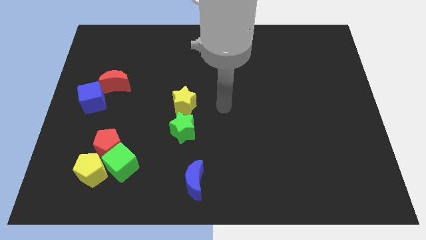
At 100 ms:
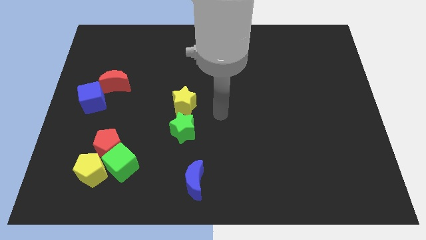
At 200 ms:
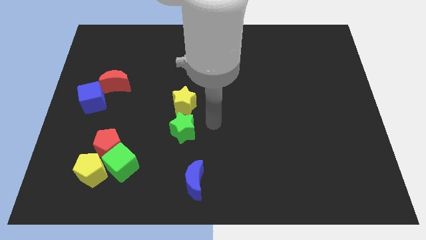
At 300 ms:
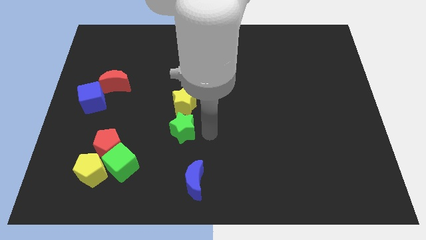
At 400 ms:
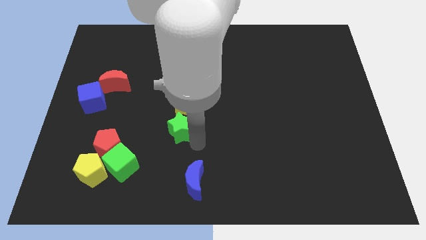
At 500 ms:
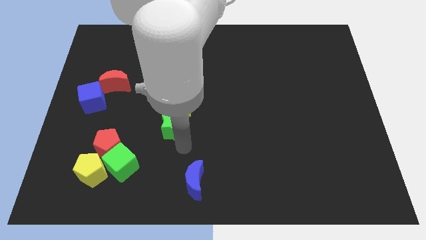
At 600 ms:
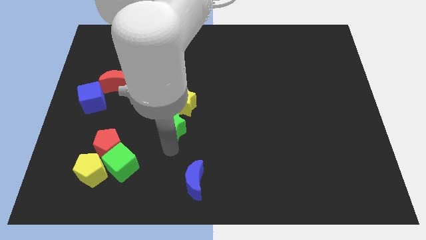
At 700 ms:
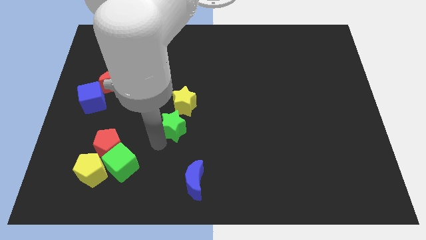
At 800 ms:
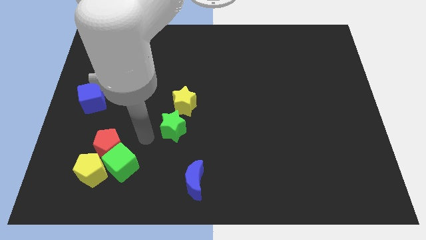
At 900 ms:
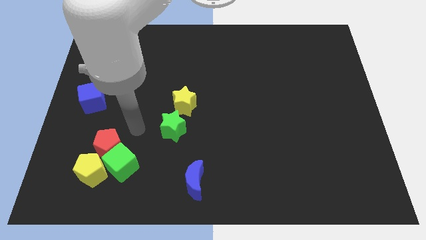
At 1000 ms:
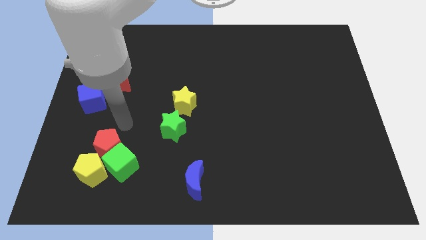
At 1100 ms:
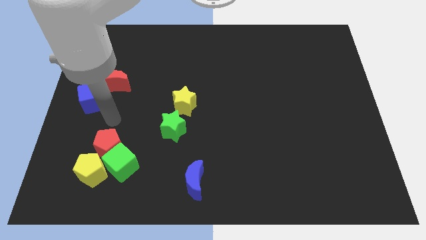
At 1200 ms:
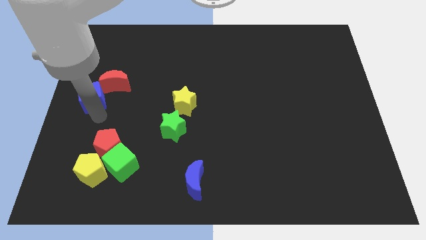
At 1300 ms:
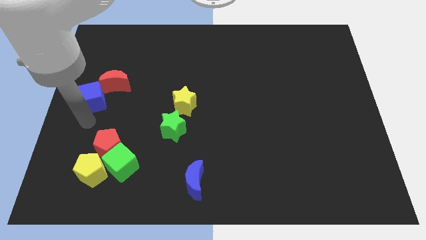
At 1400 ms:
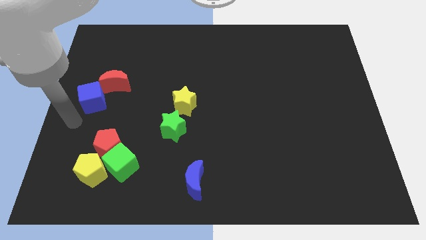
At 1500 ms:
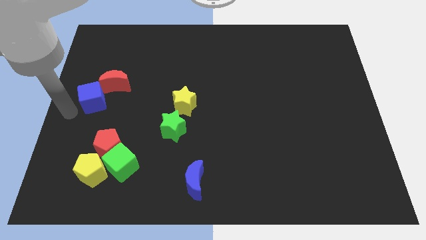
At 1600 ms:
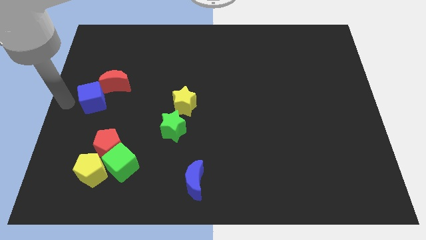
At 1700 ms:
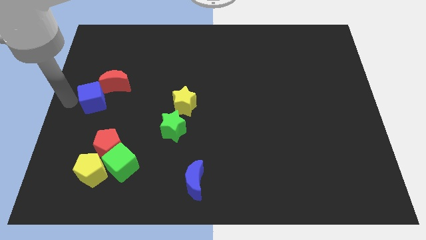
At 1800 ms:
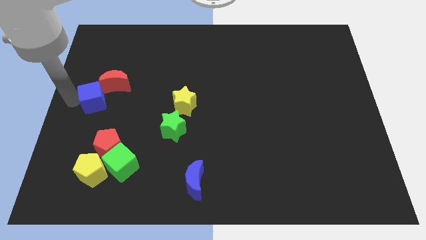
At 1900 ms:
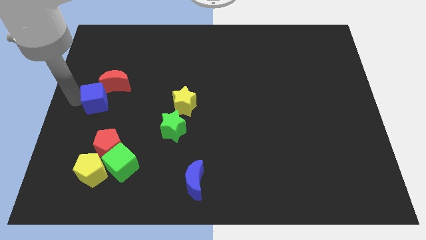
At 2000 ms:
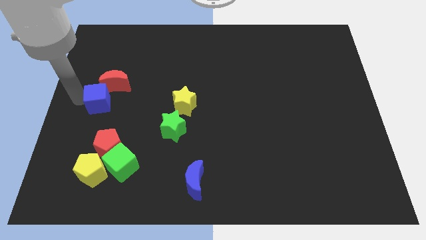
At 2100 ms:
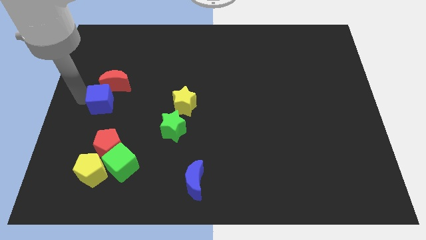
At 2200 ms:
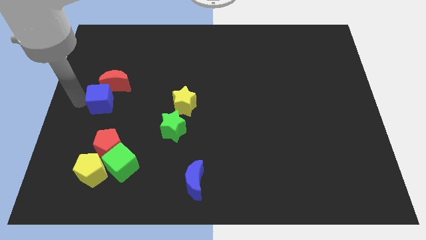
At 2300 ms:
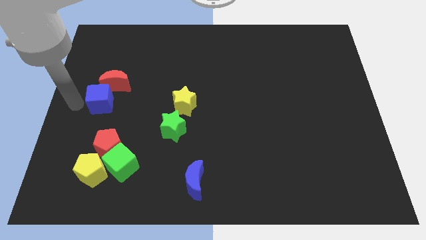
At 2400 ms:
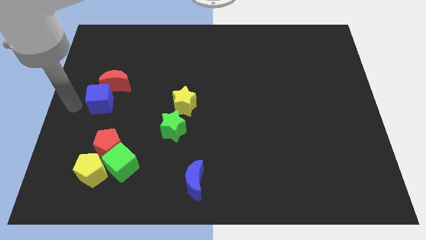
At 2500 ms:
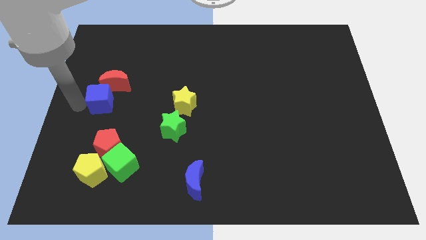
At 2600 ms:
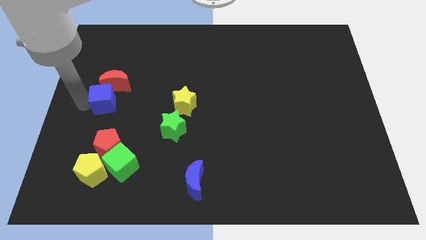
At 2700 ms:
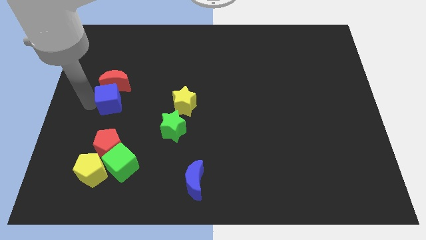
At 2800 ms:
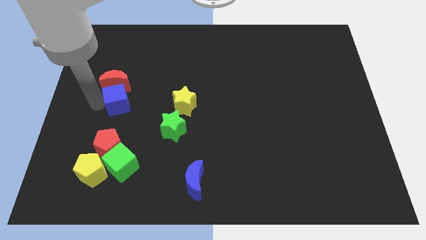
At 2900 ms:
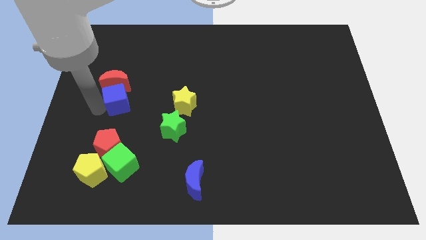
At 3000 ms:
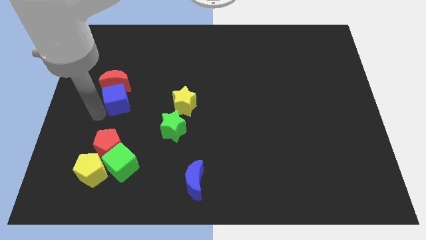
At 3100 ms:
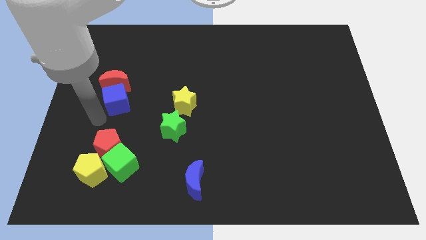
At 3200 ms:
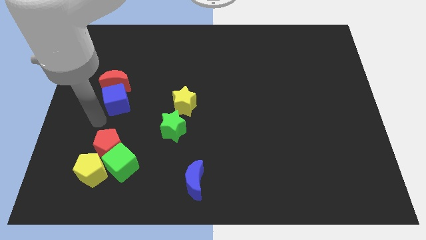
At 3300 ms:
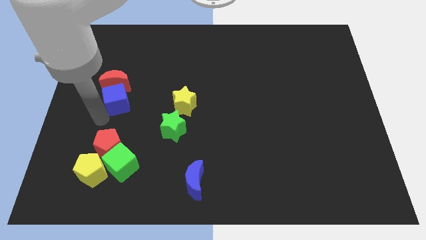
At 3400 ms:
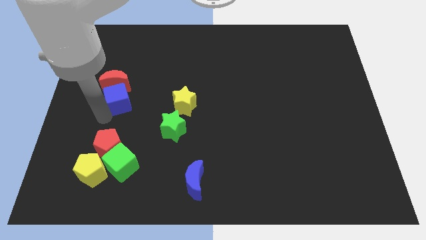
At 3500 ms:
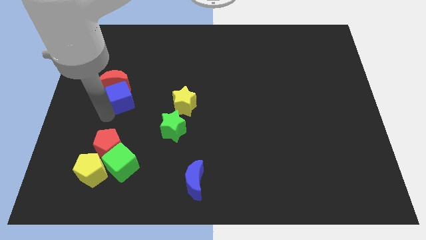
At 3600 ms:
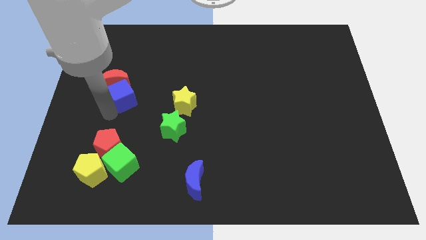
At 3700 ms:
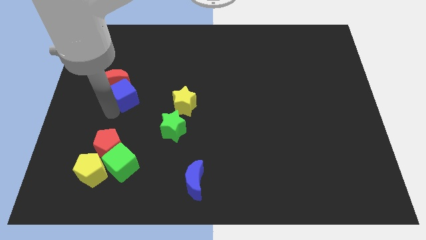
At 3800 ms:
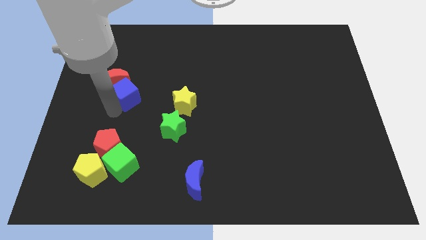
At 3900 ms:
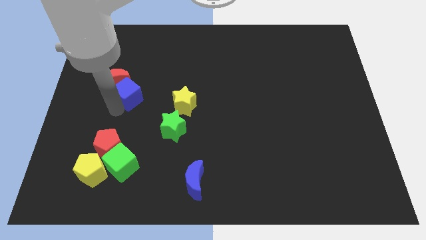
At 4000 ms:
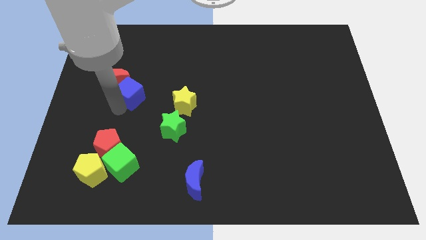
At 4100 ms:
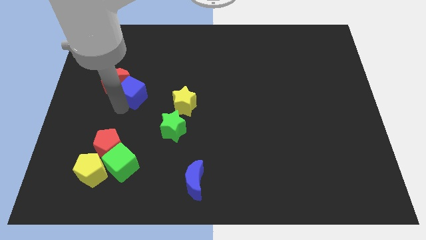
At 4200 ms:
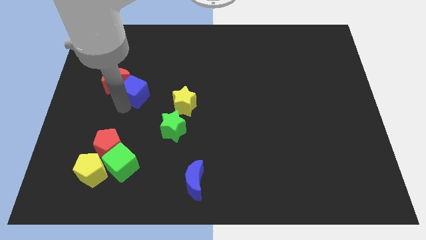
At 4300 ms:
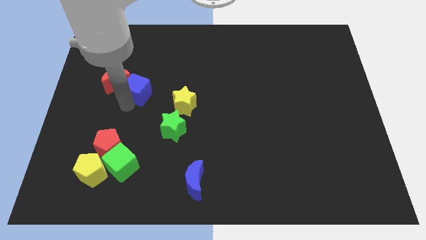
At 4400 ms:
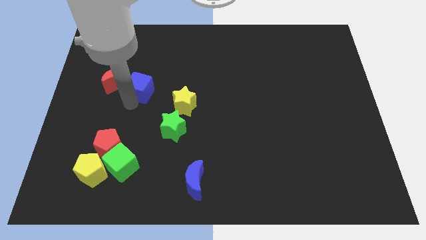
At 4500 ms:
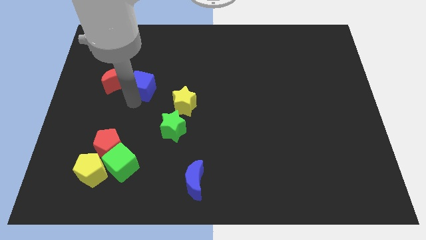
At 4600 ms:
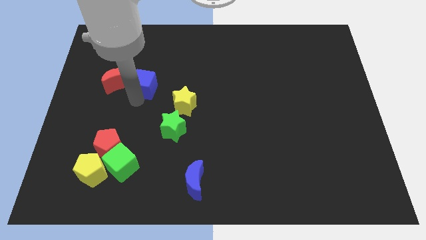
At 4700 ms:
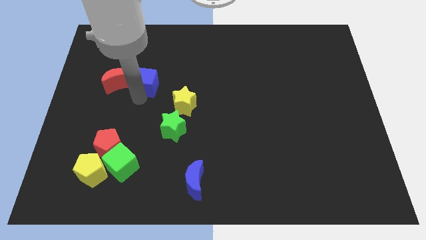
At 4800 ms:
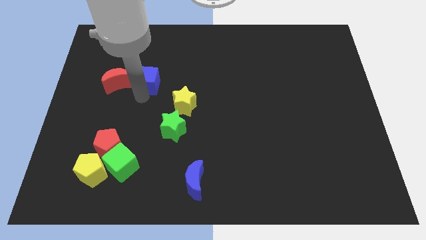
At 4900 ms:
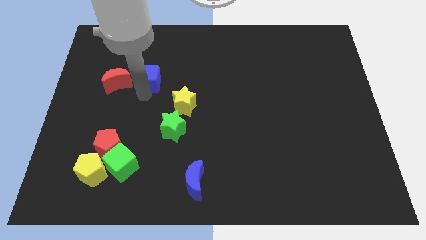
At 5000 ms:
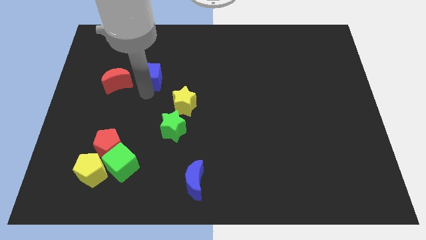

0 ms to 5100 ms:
put the blue cube to the top right side of the red moon

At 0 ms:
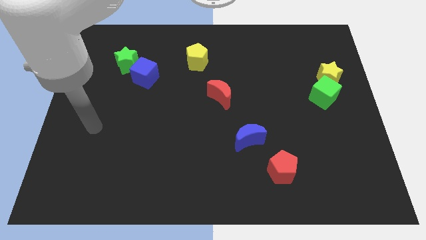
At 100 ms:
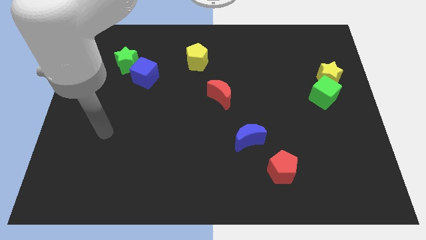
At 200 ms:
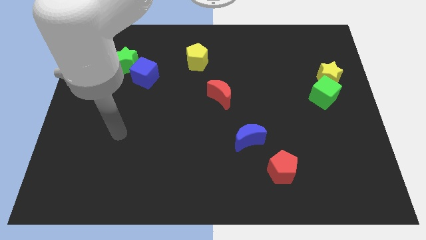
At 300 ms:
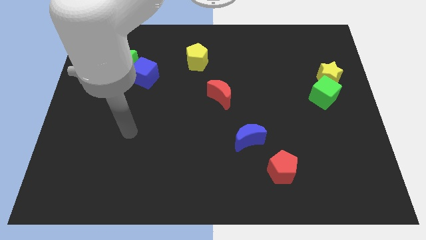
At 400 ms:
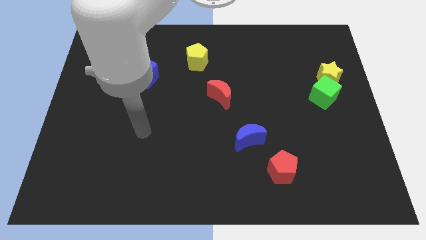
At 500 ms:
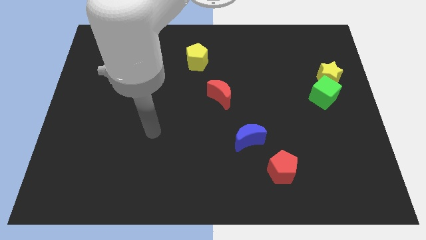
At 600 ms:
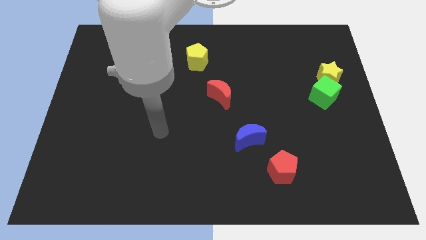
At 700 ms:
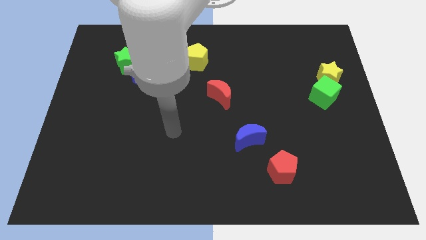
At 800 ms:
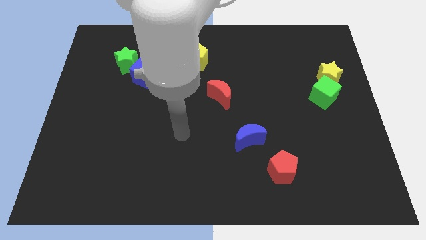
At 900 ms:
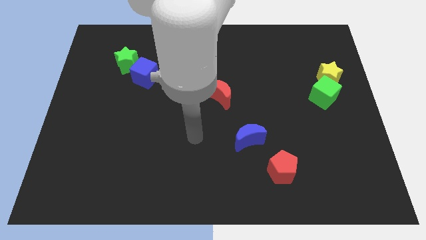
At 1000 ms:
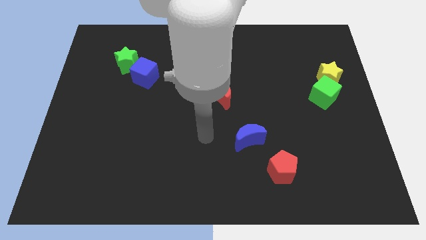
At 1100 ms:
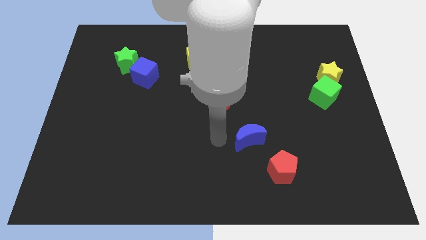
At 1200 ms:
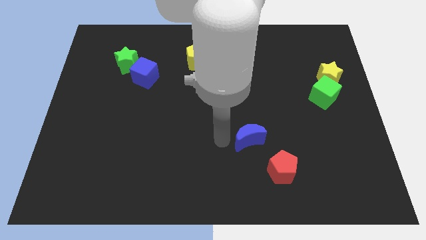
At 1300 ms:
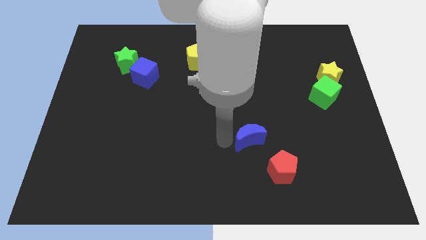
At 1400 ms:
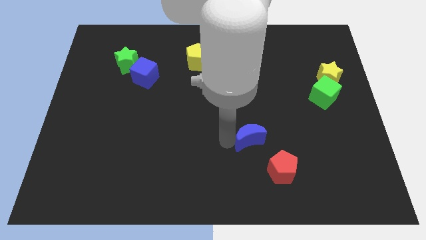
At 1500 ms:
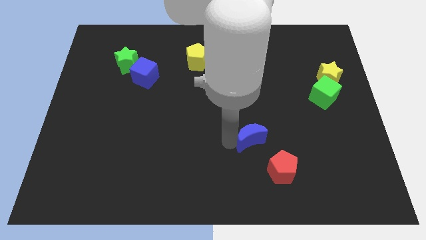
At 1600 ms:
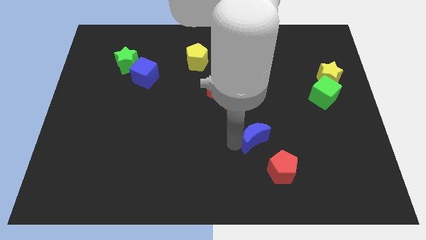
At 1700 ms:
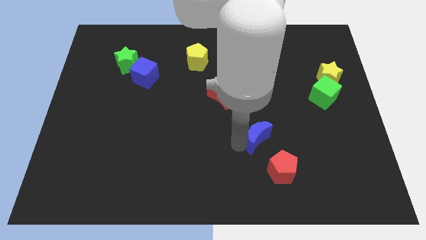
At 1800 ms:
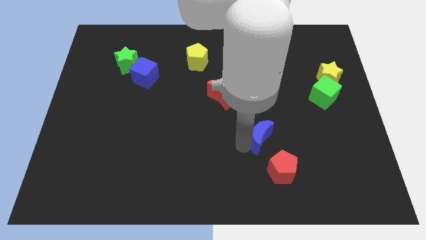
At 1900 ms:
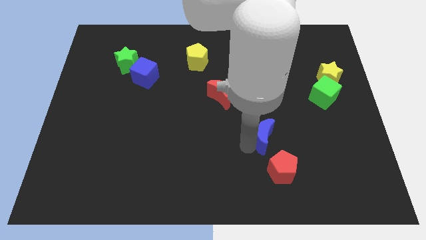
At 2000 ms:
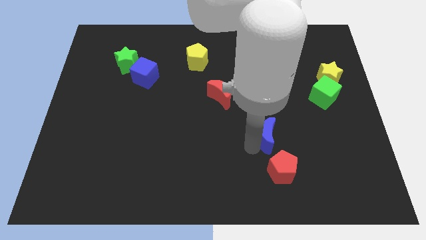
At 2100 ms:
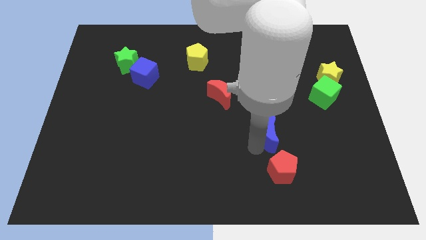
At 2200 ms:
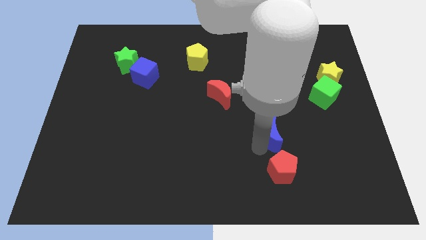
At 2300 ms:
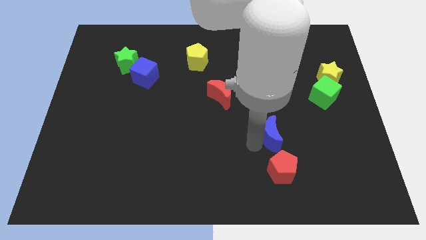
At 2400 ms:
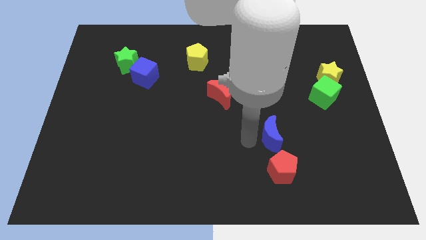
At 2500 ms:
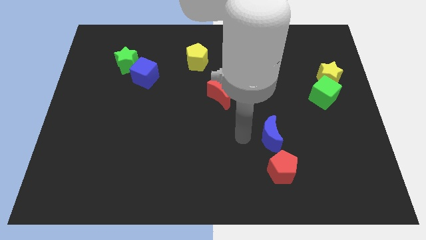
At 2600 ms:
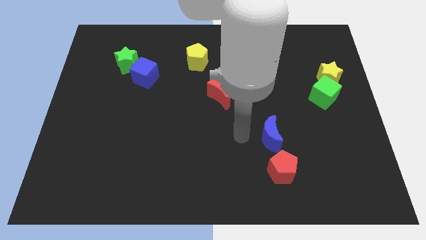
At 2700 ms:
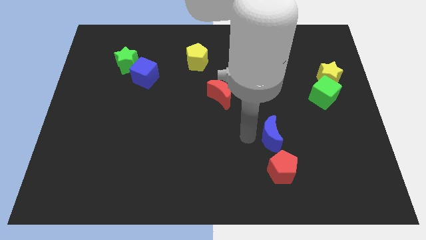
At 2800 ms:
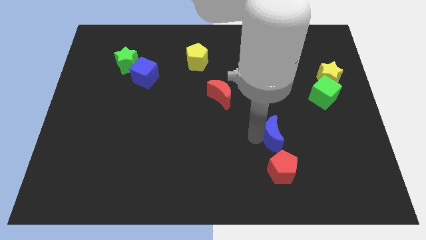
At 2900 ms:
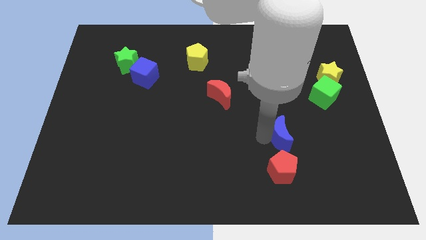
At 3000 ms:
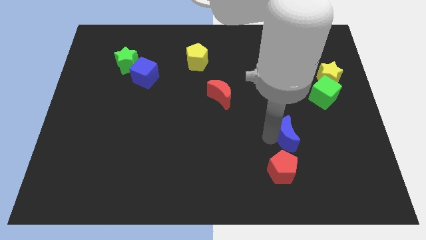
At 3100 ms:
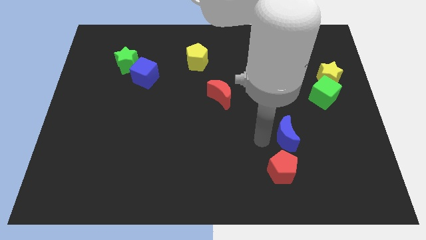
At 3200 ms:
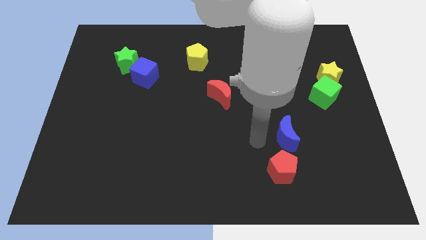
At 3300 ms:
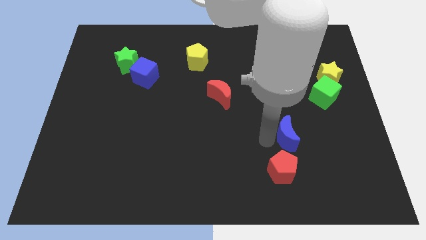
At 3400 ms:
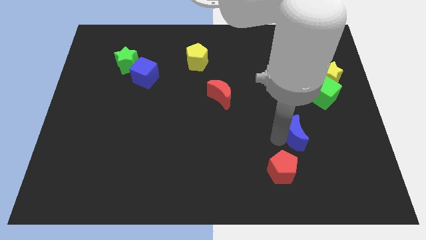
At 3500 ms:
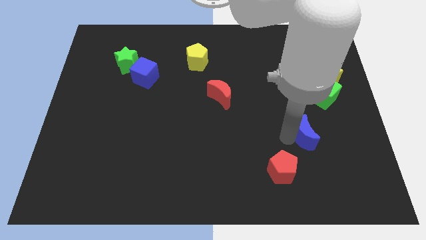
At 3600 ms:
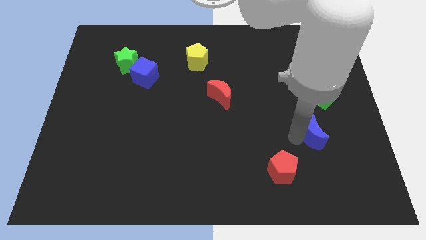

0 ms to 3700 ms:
move the blue moon below the green cube
